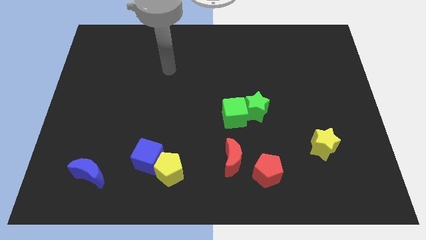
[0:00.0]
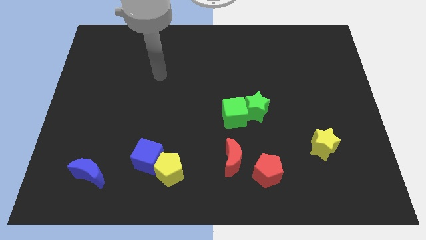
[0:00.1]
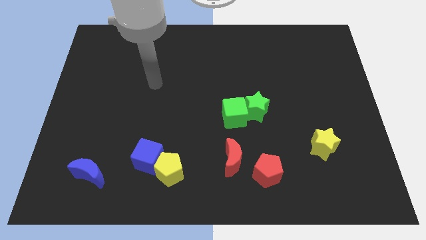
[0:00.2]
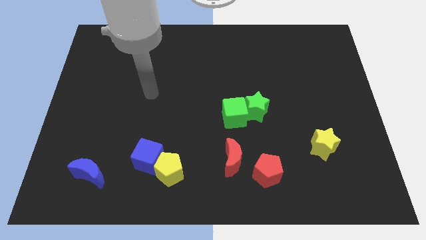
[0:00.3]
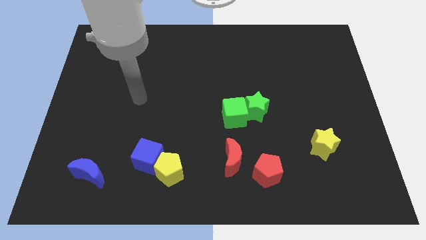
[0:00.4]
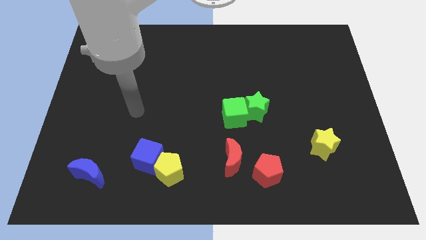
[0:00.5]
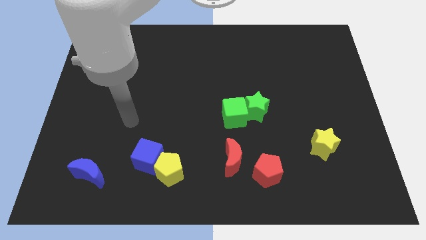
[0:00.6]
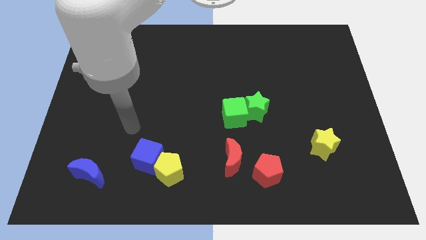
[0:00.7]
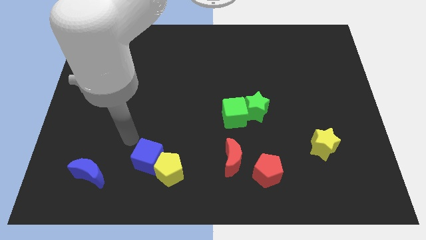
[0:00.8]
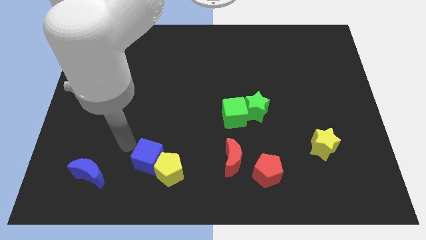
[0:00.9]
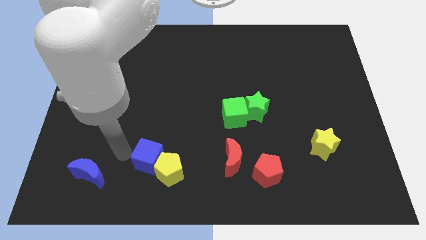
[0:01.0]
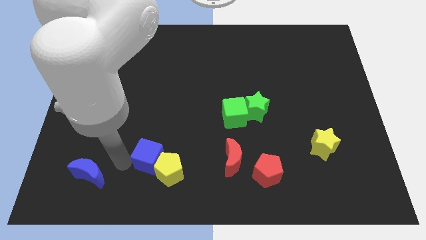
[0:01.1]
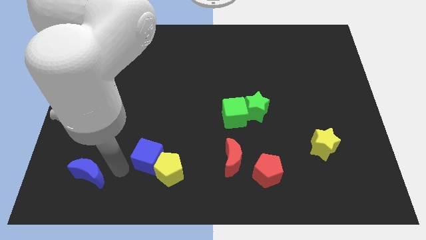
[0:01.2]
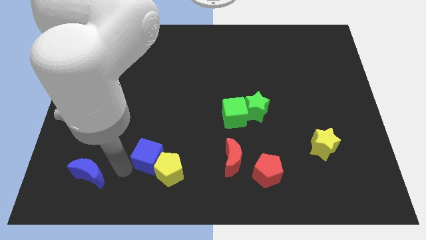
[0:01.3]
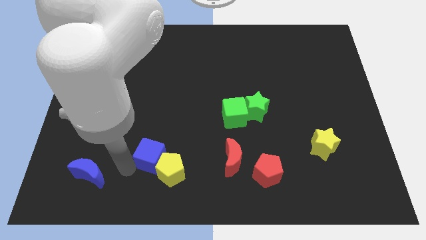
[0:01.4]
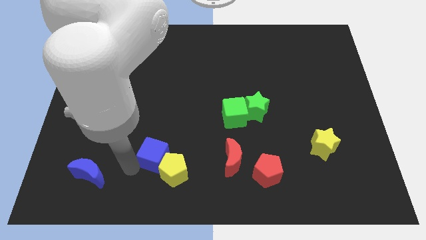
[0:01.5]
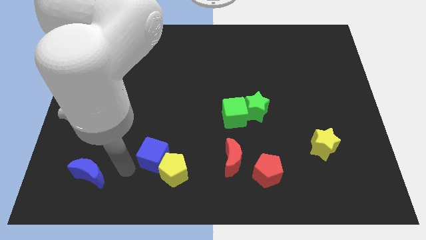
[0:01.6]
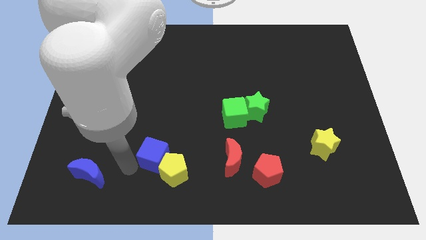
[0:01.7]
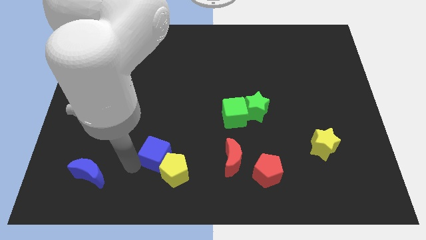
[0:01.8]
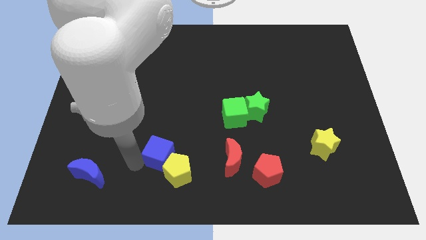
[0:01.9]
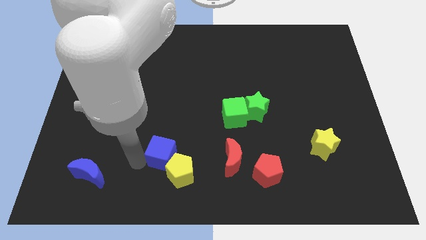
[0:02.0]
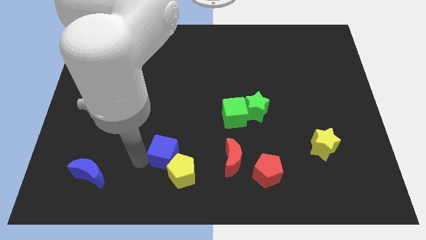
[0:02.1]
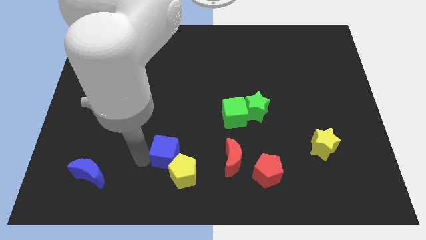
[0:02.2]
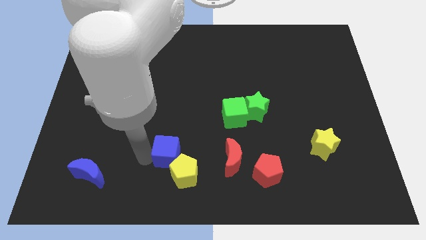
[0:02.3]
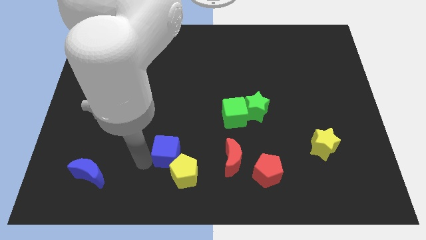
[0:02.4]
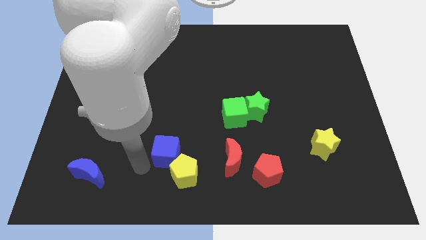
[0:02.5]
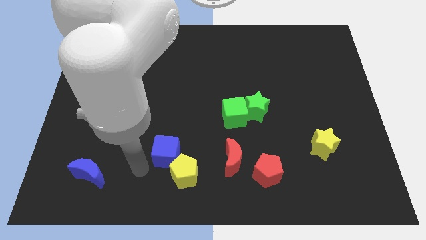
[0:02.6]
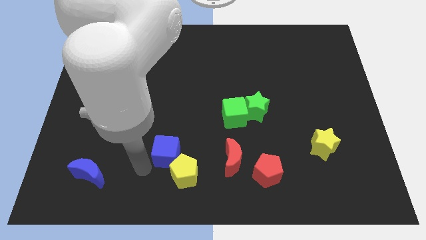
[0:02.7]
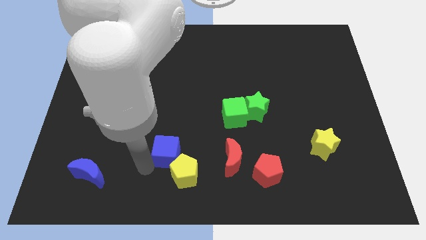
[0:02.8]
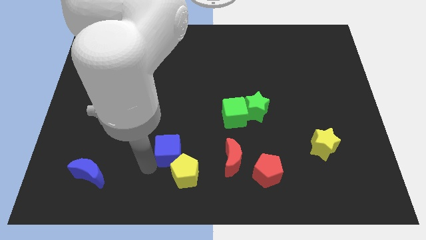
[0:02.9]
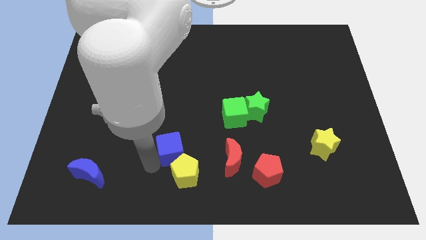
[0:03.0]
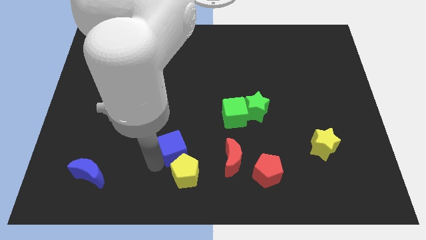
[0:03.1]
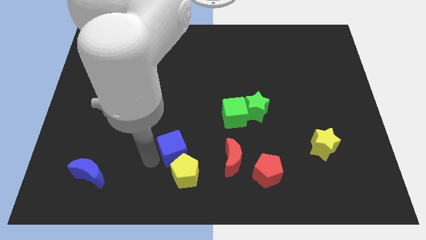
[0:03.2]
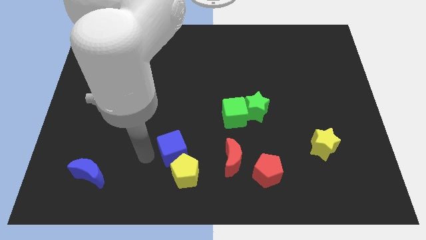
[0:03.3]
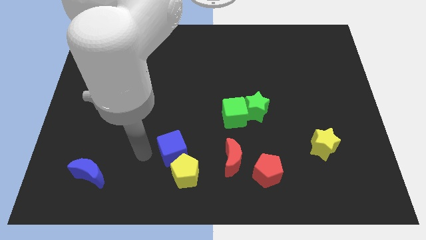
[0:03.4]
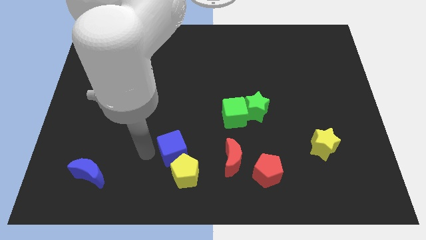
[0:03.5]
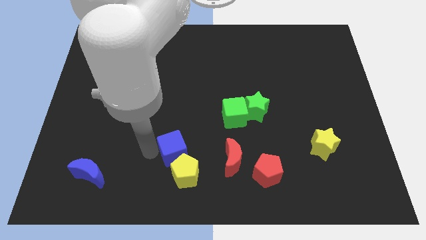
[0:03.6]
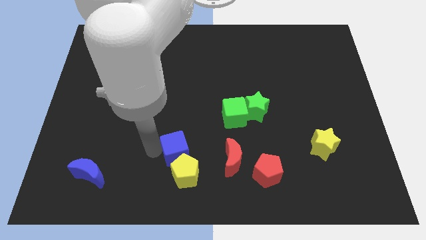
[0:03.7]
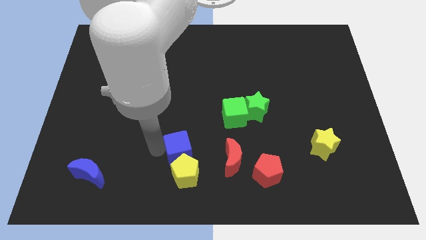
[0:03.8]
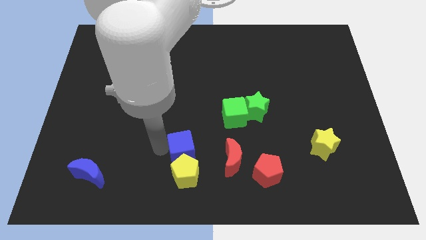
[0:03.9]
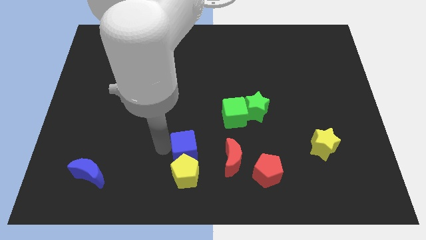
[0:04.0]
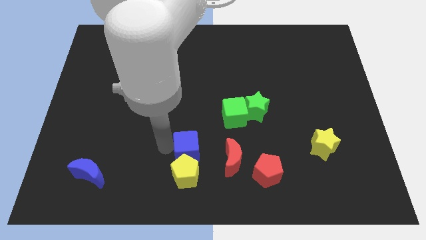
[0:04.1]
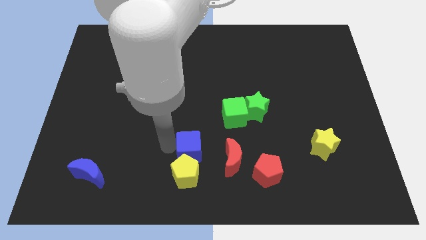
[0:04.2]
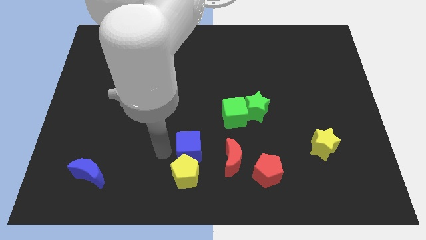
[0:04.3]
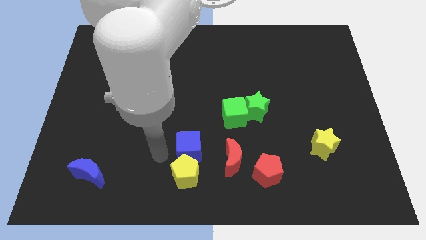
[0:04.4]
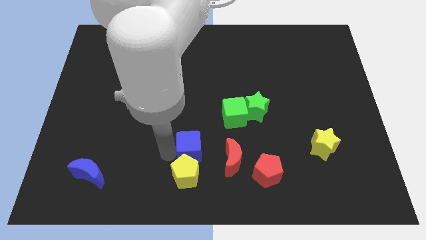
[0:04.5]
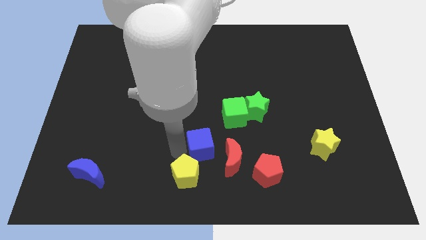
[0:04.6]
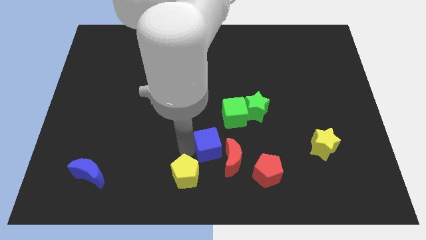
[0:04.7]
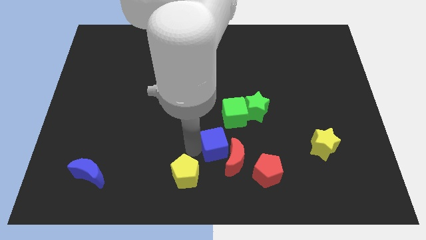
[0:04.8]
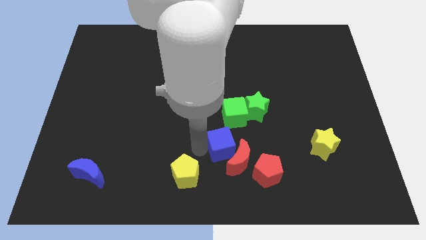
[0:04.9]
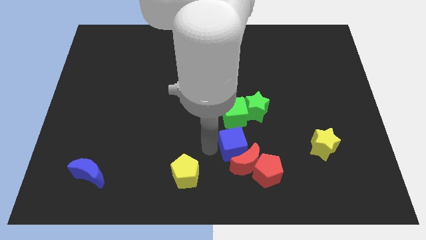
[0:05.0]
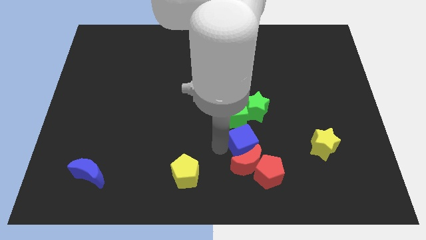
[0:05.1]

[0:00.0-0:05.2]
push the blue cube diagonally up and to the right of the red moon

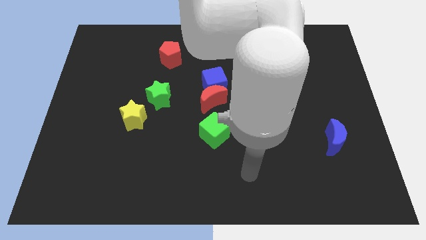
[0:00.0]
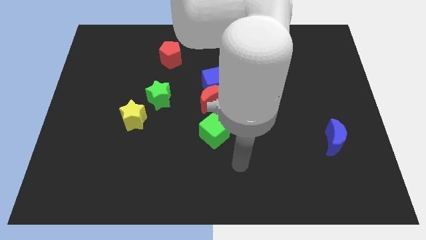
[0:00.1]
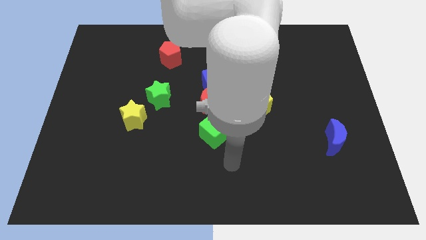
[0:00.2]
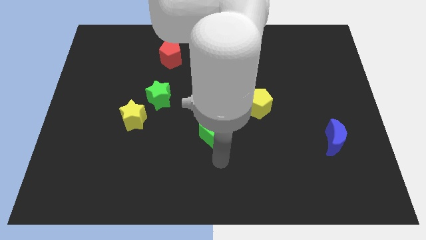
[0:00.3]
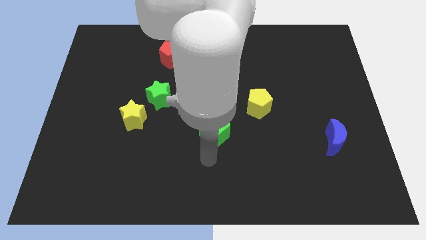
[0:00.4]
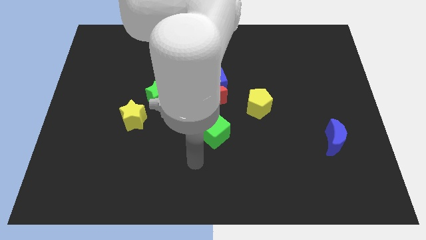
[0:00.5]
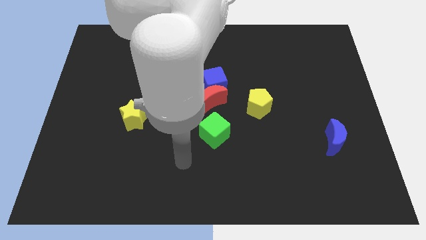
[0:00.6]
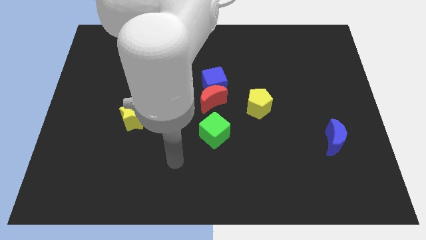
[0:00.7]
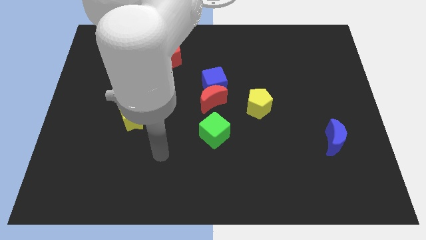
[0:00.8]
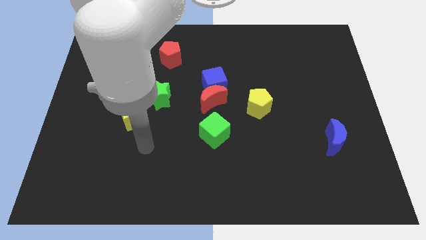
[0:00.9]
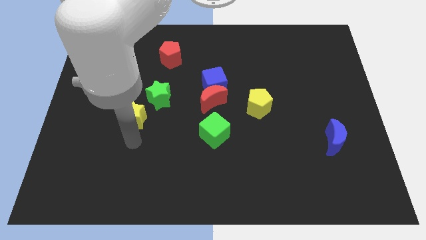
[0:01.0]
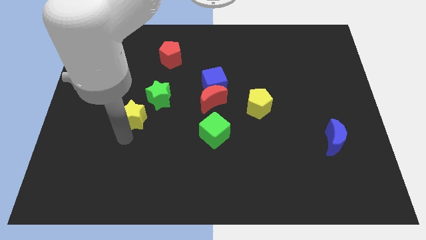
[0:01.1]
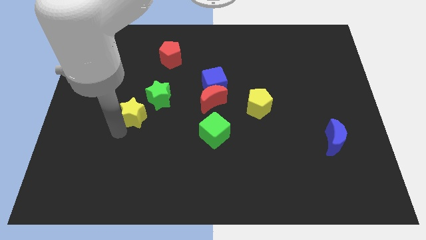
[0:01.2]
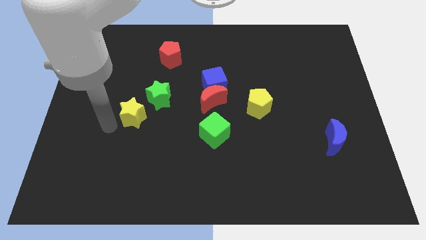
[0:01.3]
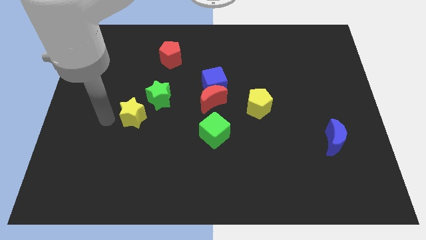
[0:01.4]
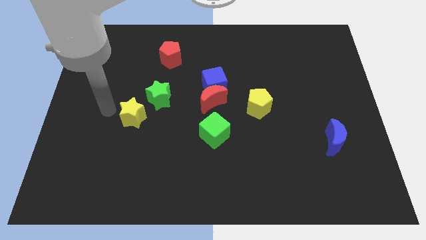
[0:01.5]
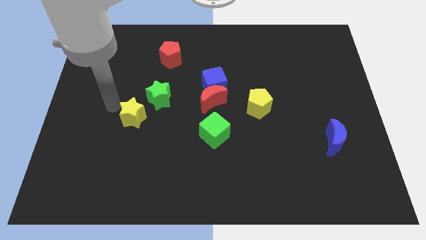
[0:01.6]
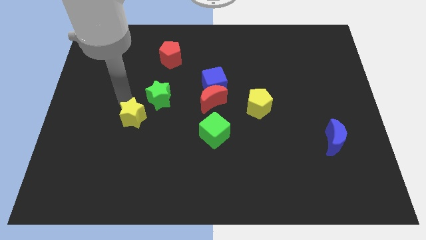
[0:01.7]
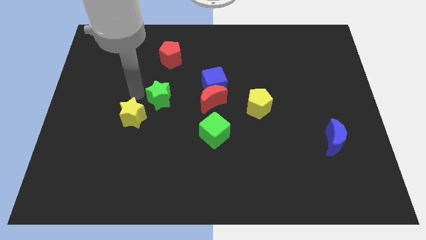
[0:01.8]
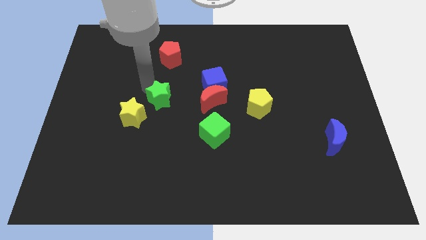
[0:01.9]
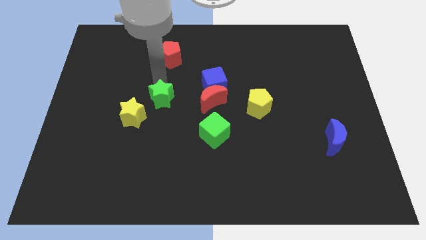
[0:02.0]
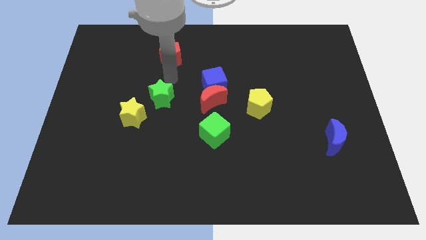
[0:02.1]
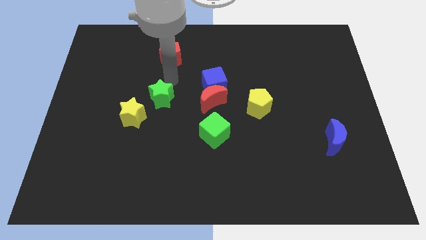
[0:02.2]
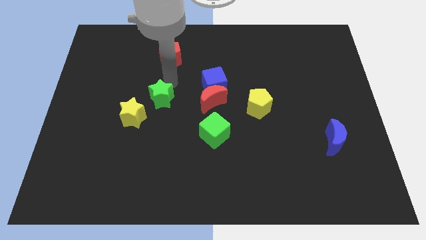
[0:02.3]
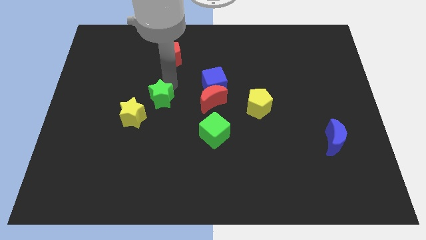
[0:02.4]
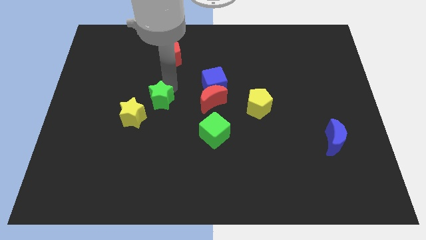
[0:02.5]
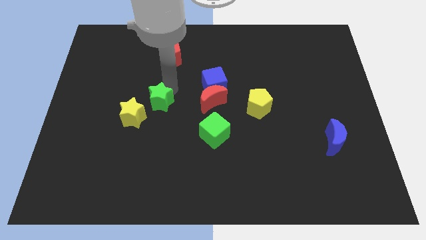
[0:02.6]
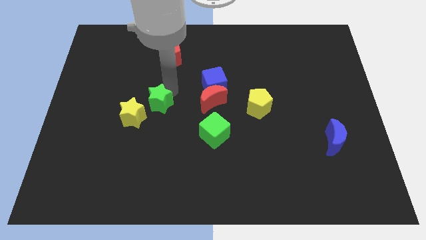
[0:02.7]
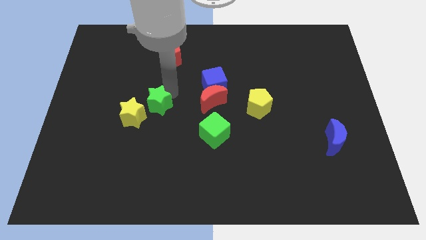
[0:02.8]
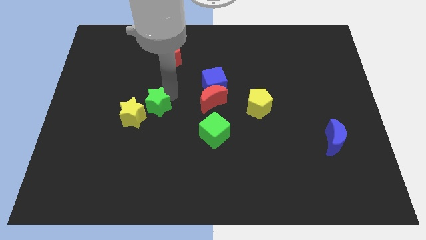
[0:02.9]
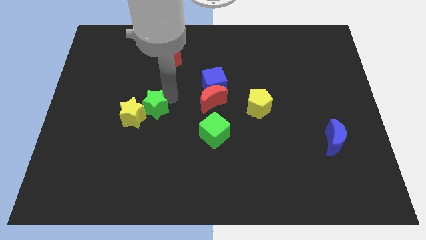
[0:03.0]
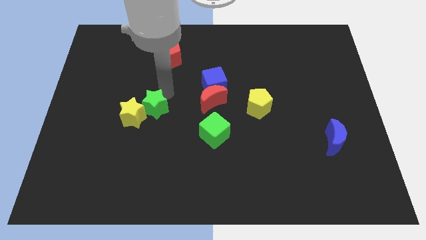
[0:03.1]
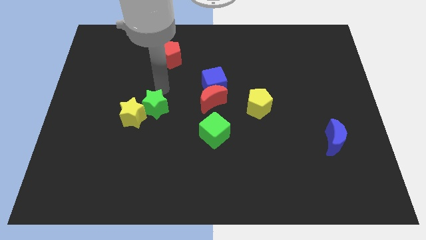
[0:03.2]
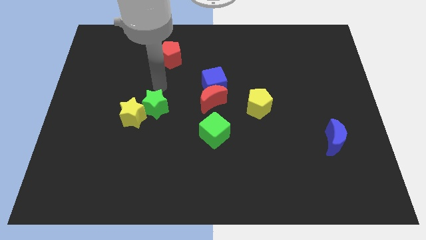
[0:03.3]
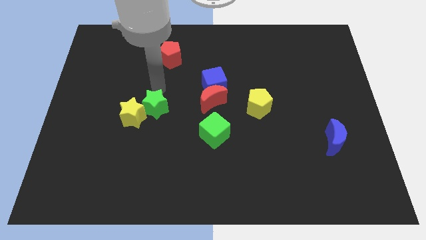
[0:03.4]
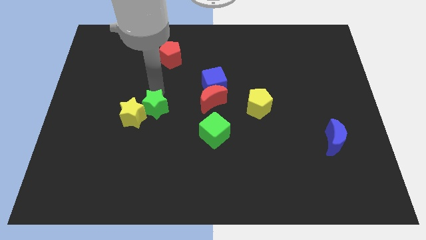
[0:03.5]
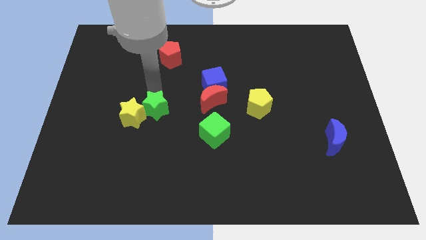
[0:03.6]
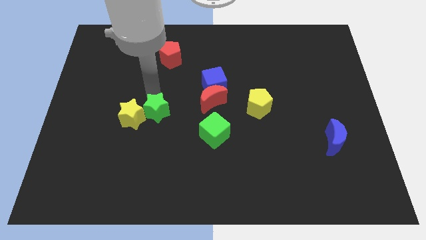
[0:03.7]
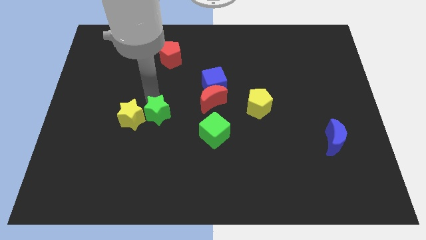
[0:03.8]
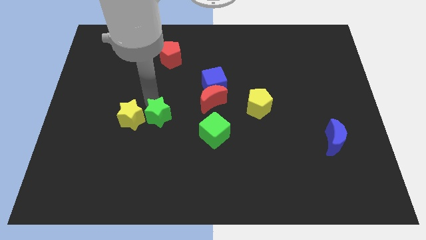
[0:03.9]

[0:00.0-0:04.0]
slide the green star diagonally down and to the right of the yellow star

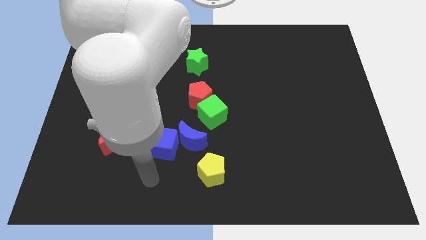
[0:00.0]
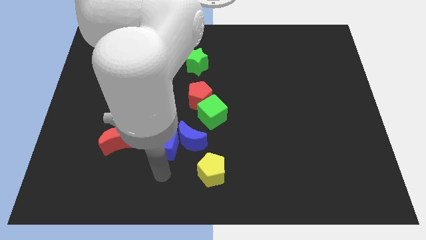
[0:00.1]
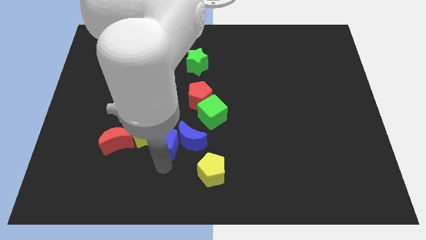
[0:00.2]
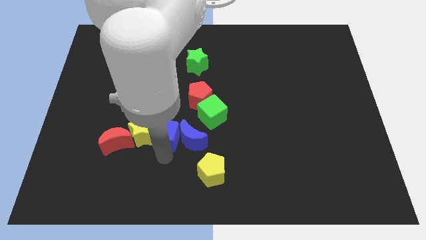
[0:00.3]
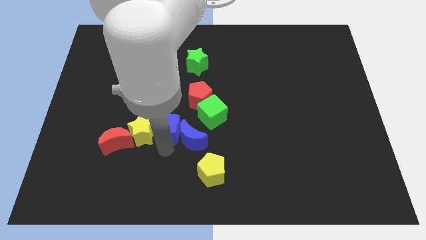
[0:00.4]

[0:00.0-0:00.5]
put the blue cube left of the green cube
